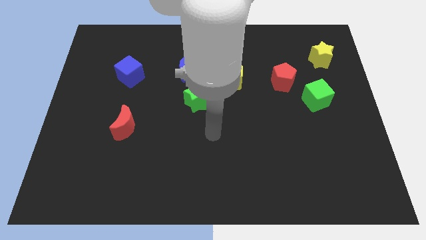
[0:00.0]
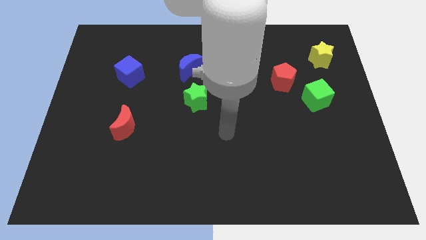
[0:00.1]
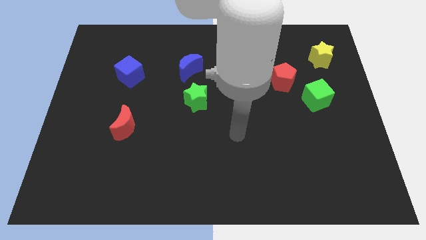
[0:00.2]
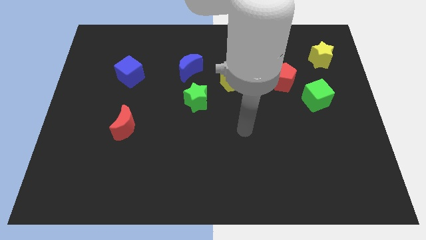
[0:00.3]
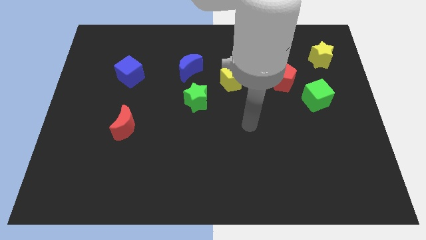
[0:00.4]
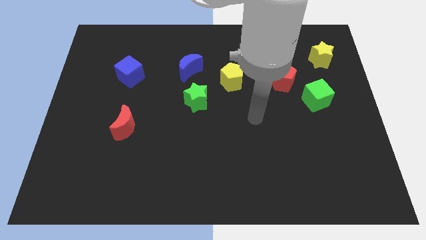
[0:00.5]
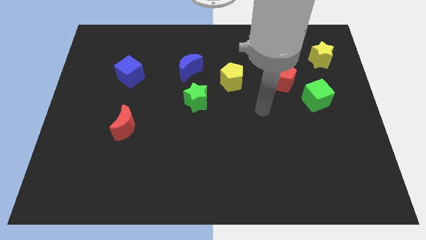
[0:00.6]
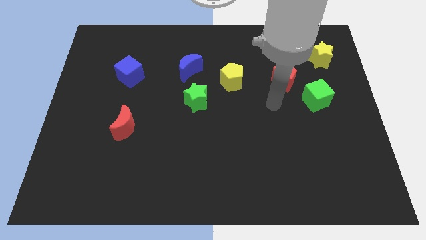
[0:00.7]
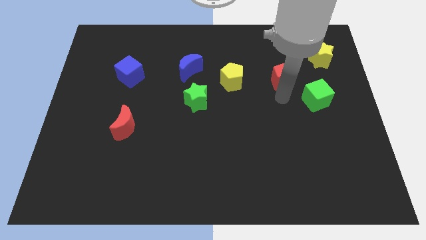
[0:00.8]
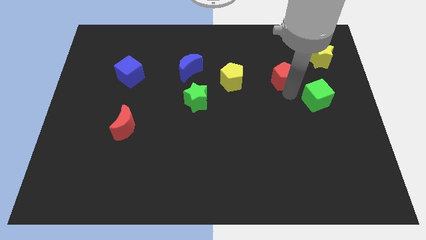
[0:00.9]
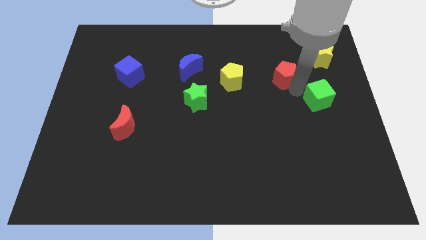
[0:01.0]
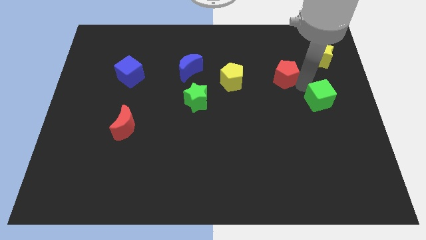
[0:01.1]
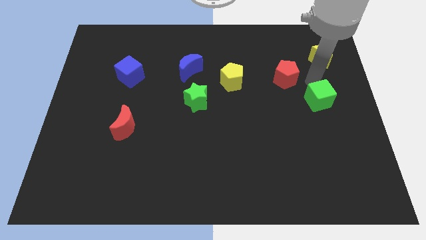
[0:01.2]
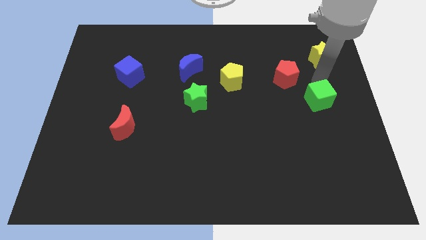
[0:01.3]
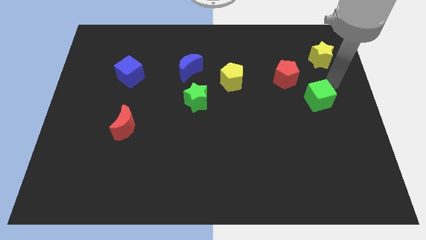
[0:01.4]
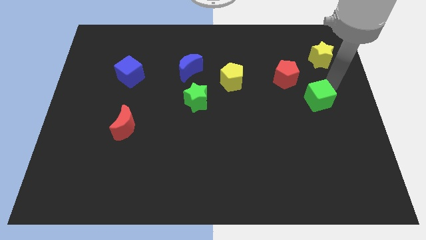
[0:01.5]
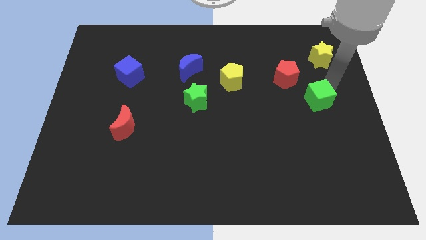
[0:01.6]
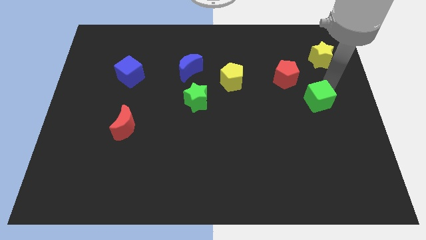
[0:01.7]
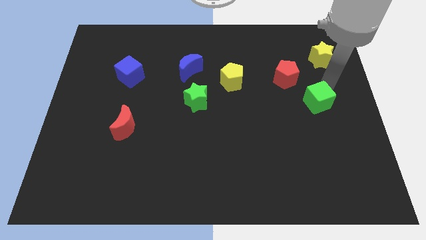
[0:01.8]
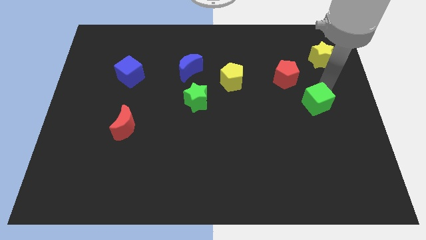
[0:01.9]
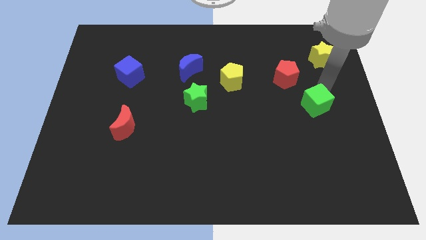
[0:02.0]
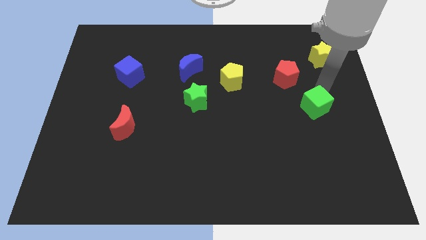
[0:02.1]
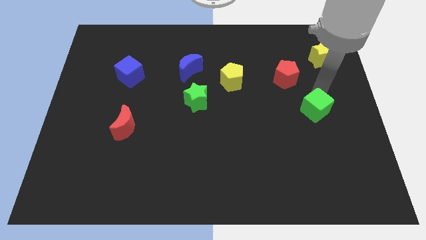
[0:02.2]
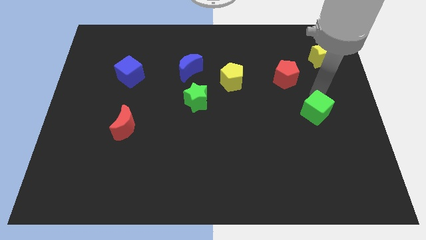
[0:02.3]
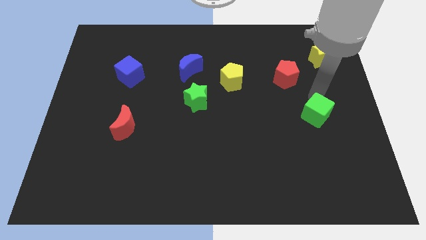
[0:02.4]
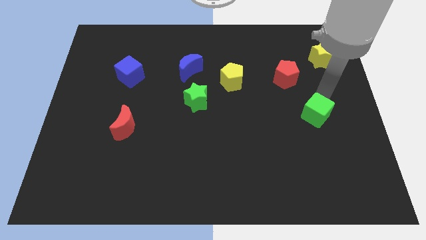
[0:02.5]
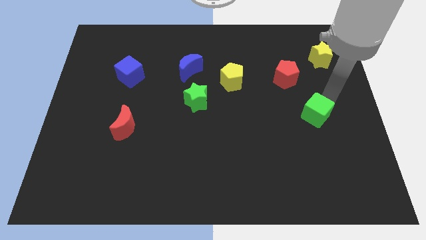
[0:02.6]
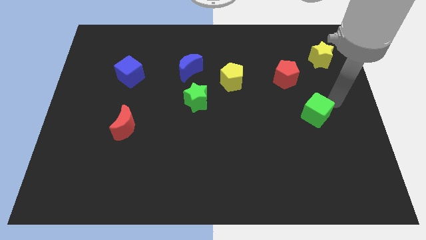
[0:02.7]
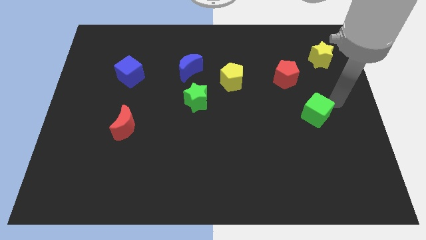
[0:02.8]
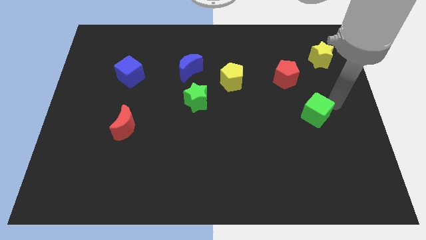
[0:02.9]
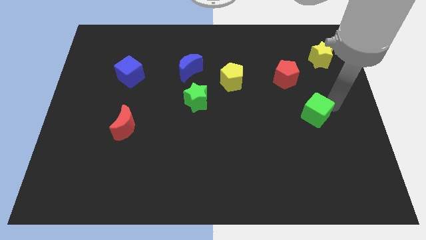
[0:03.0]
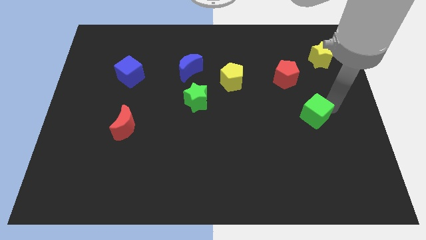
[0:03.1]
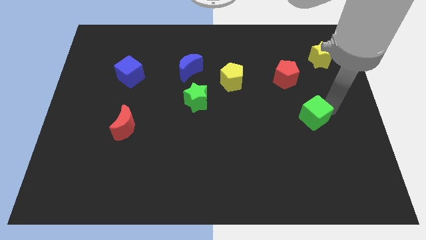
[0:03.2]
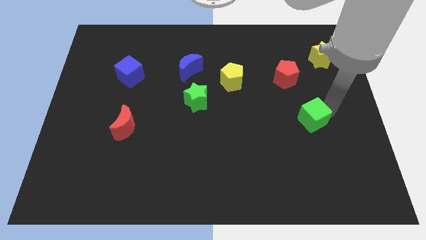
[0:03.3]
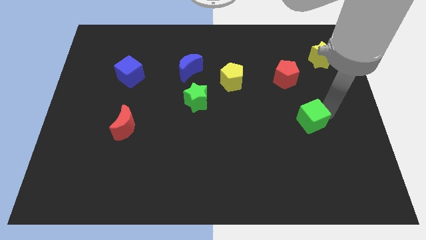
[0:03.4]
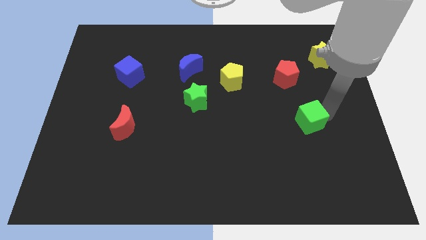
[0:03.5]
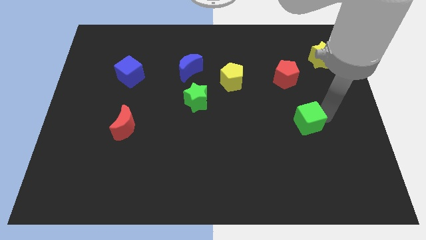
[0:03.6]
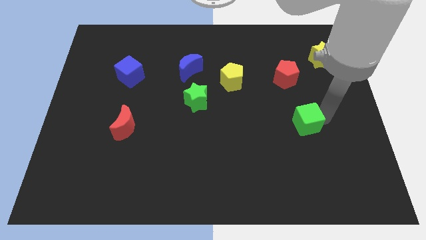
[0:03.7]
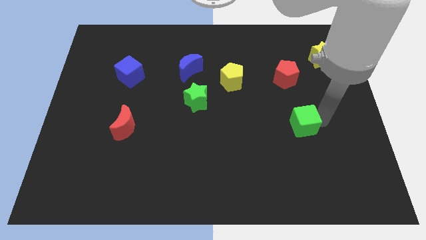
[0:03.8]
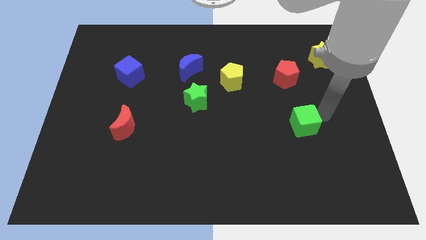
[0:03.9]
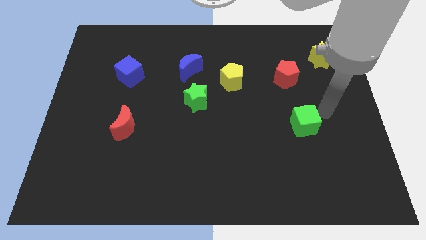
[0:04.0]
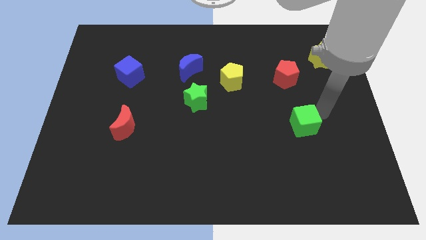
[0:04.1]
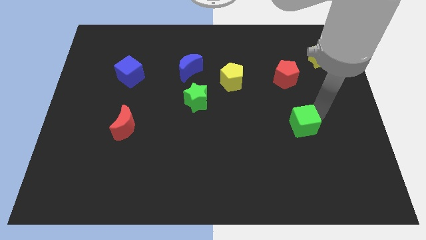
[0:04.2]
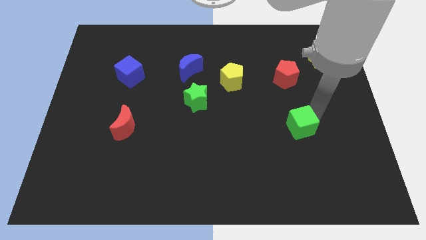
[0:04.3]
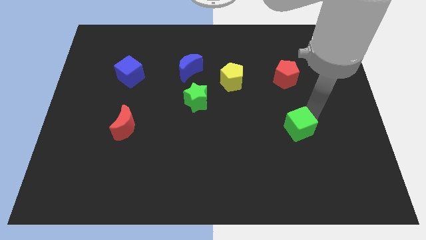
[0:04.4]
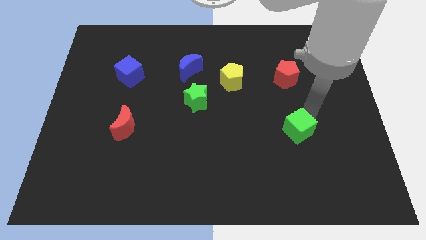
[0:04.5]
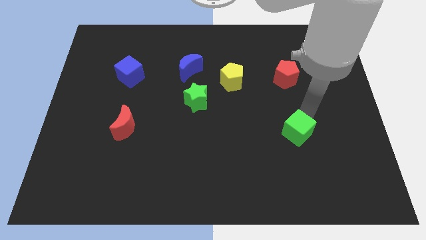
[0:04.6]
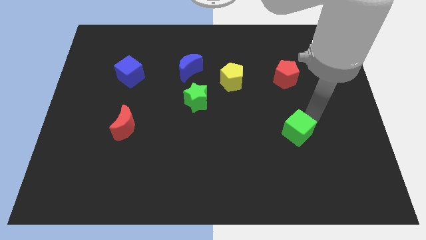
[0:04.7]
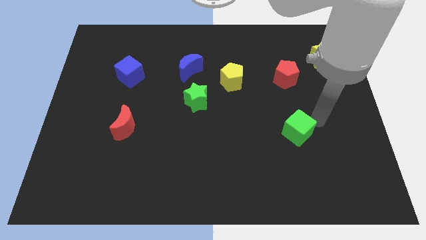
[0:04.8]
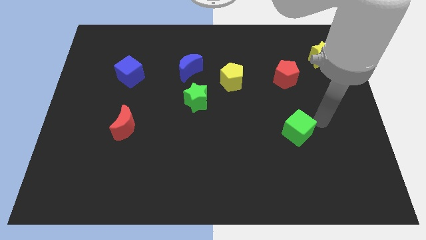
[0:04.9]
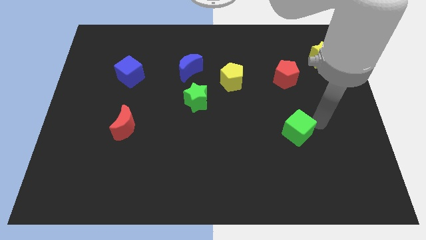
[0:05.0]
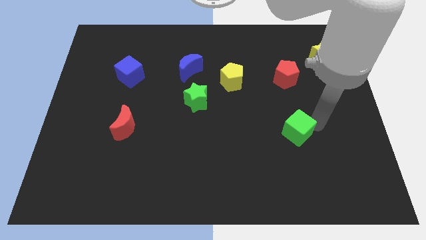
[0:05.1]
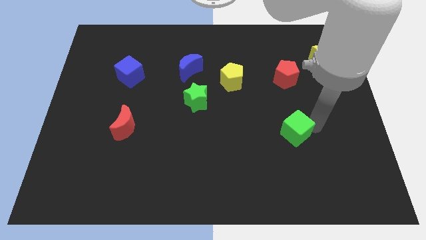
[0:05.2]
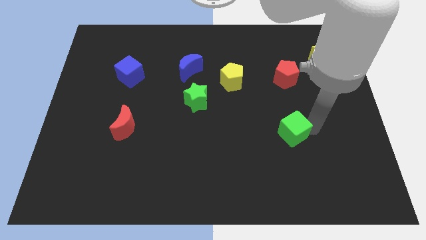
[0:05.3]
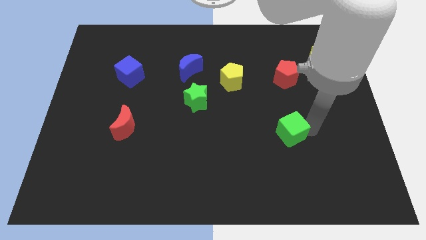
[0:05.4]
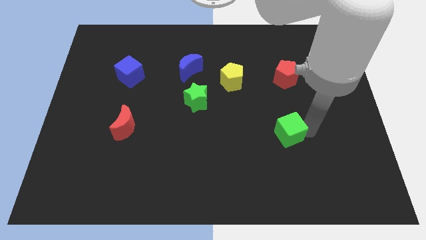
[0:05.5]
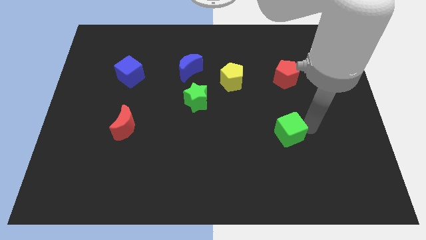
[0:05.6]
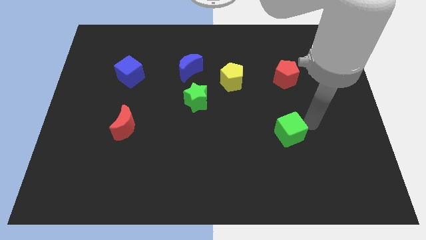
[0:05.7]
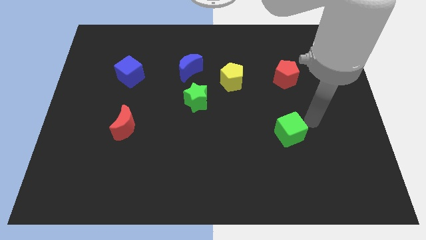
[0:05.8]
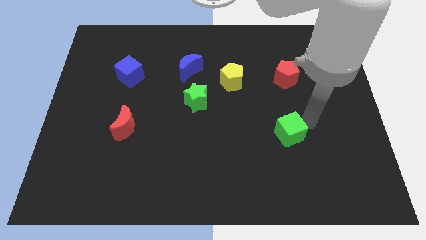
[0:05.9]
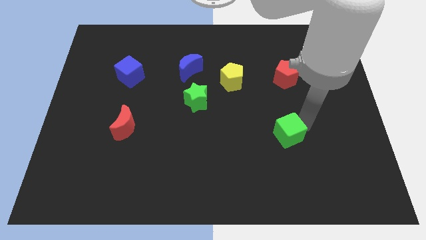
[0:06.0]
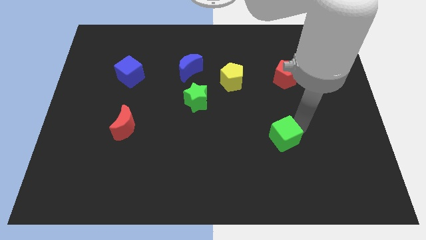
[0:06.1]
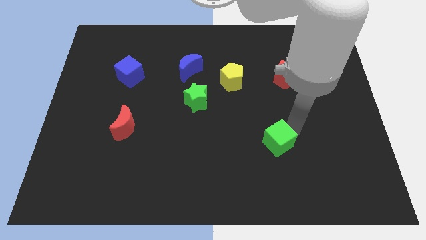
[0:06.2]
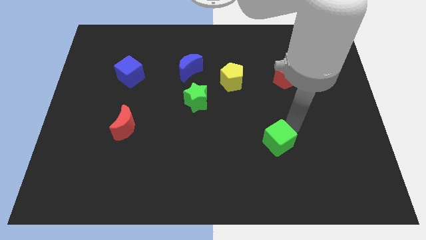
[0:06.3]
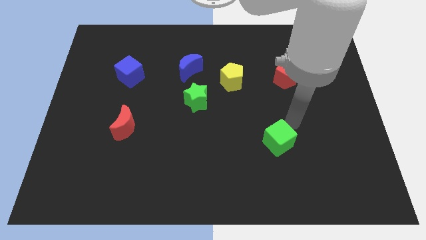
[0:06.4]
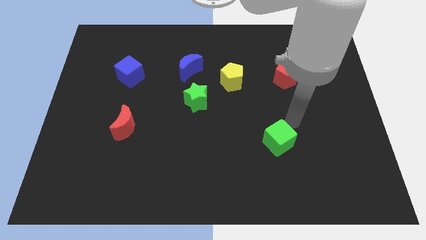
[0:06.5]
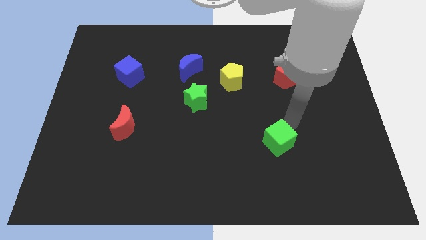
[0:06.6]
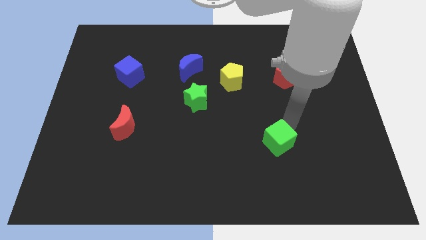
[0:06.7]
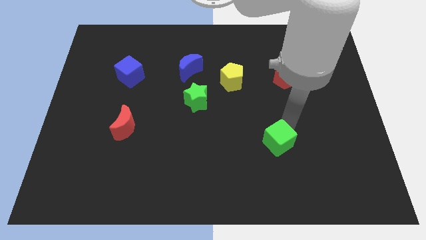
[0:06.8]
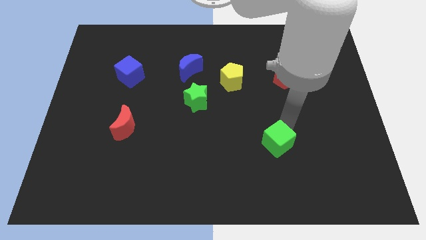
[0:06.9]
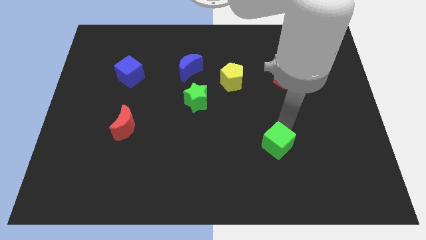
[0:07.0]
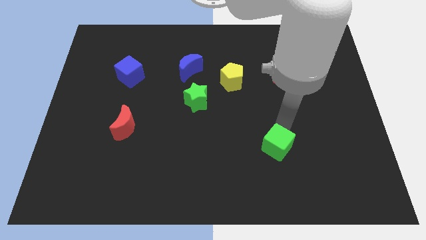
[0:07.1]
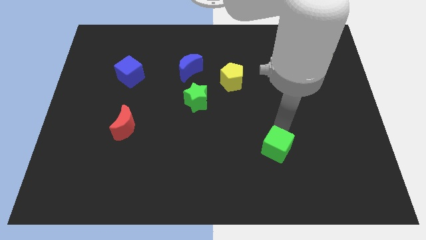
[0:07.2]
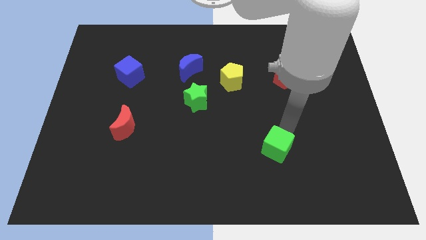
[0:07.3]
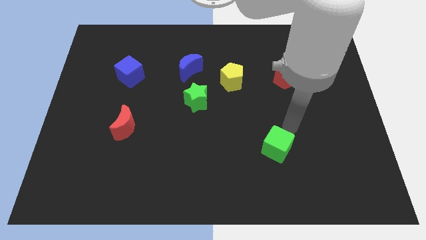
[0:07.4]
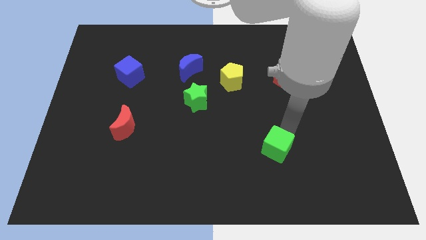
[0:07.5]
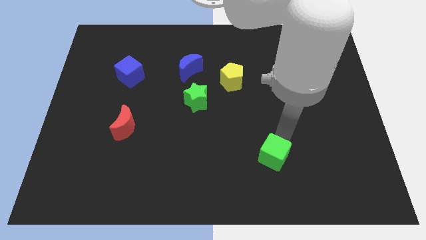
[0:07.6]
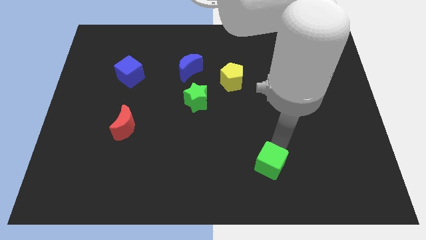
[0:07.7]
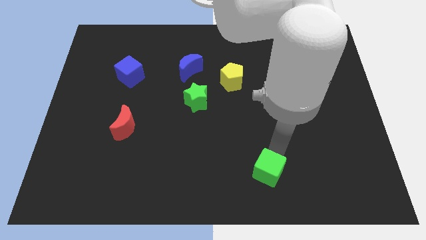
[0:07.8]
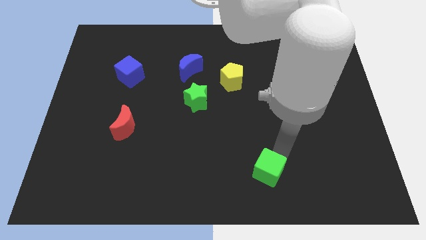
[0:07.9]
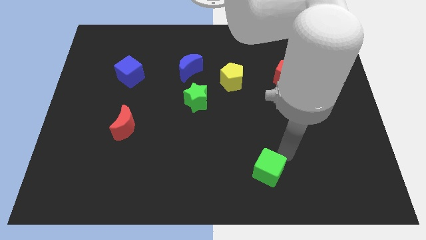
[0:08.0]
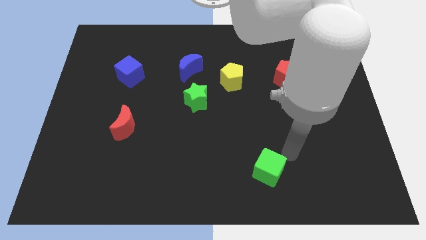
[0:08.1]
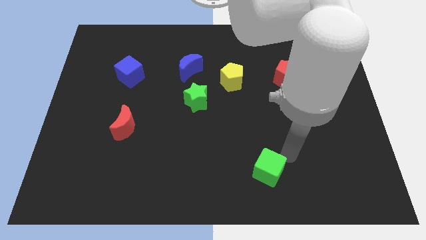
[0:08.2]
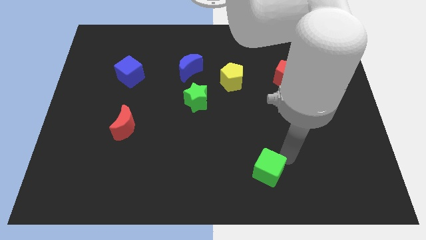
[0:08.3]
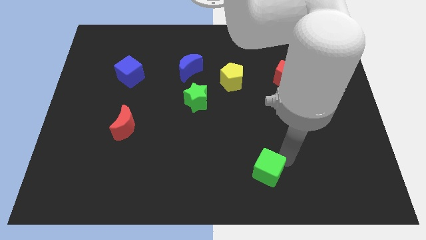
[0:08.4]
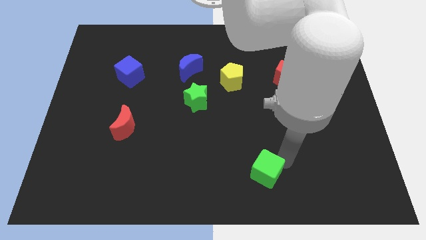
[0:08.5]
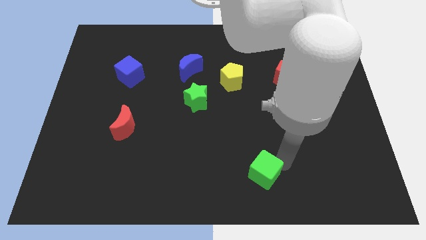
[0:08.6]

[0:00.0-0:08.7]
put the green cube to the bottom
